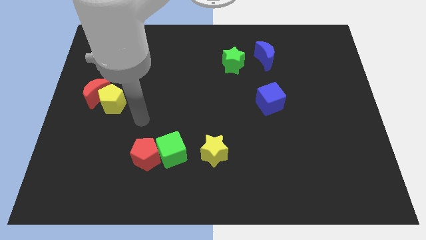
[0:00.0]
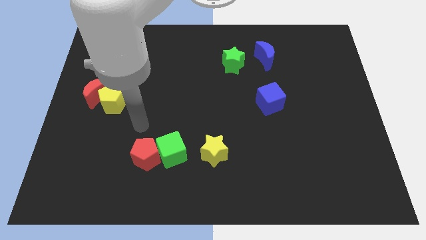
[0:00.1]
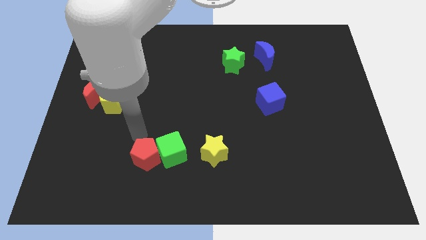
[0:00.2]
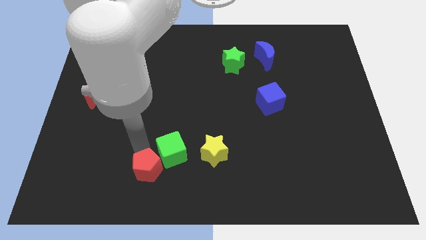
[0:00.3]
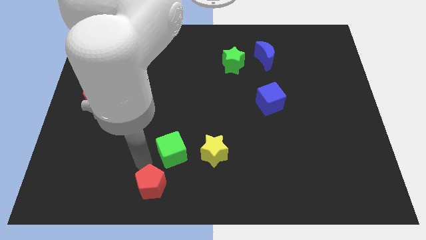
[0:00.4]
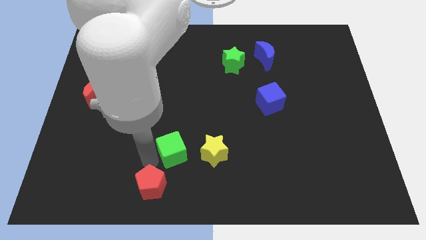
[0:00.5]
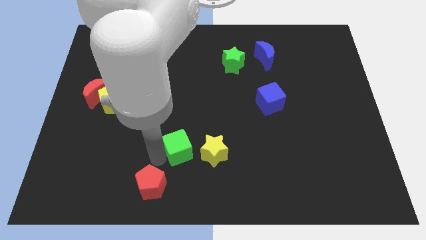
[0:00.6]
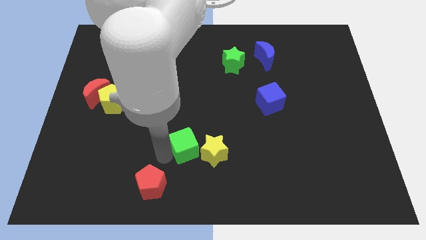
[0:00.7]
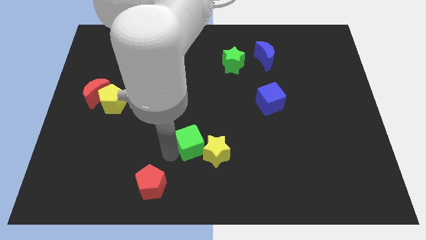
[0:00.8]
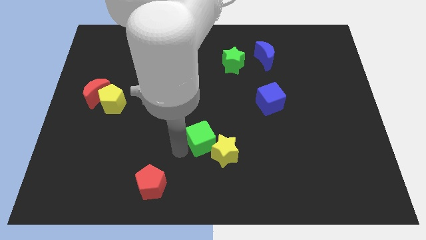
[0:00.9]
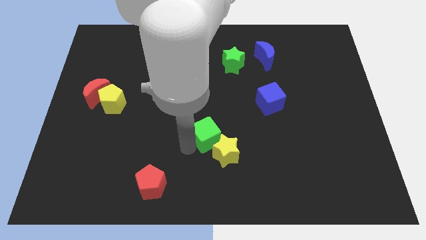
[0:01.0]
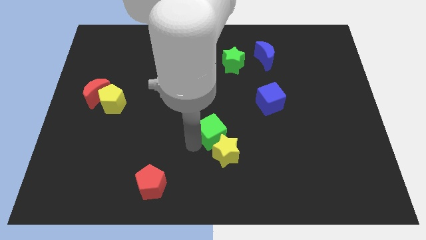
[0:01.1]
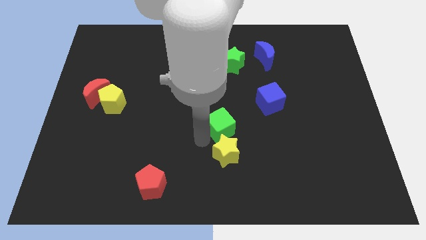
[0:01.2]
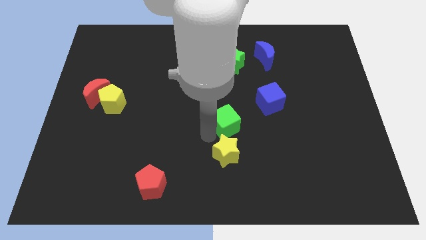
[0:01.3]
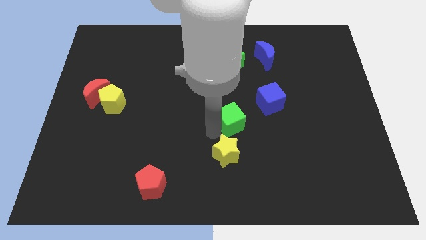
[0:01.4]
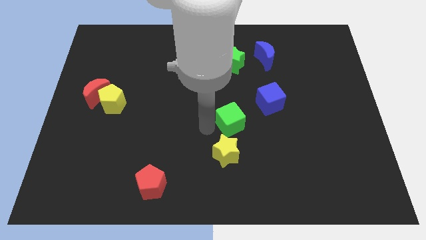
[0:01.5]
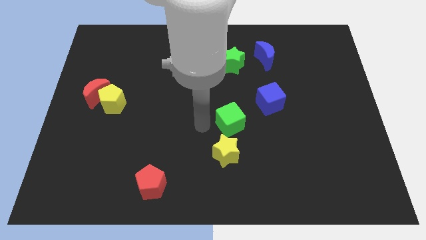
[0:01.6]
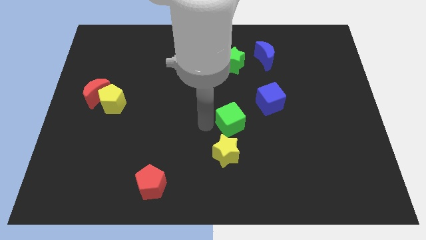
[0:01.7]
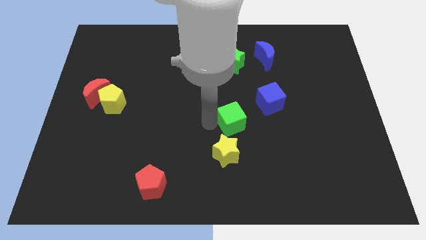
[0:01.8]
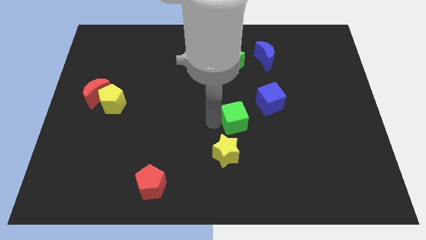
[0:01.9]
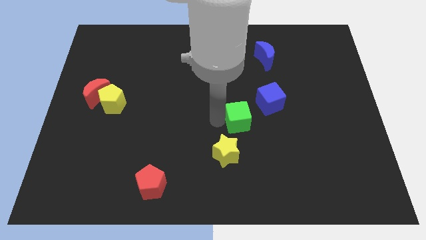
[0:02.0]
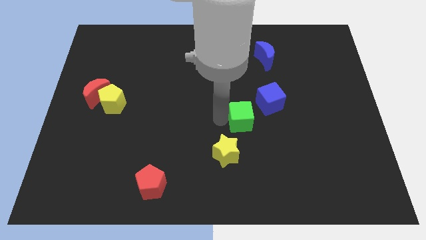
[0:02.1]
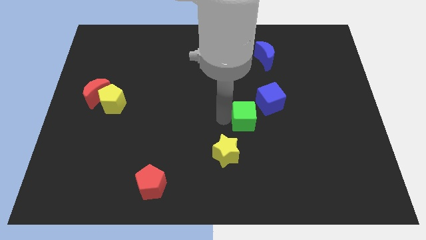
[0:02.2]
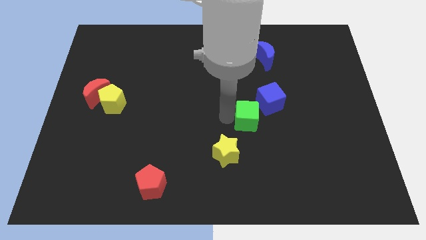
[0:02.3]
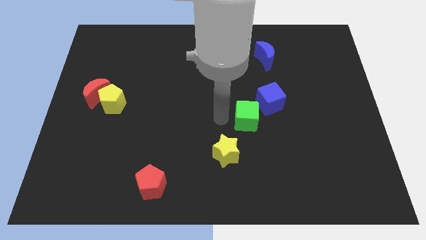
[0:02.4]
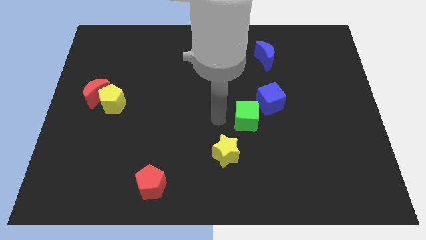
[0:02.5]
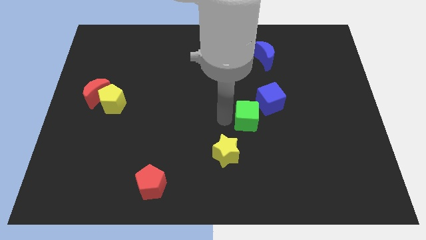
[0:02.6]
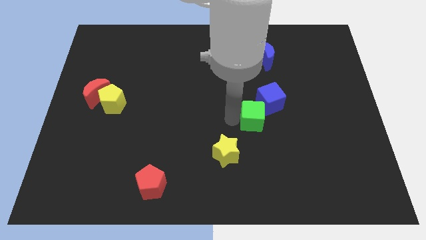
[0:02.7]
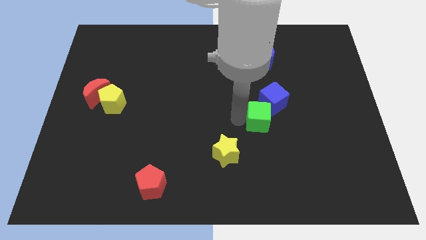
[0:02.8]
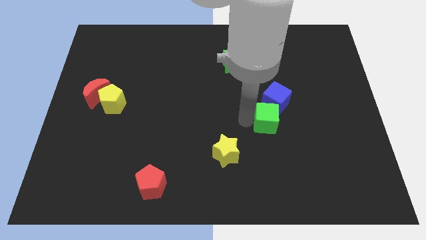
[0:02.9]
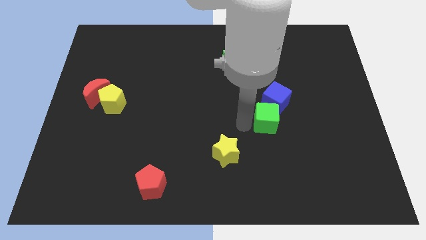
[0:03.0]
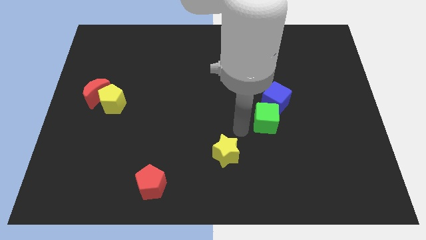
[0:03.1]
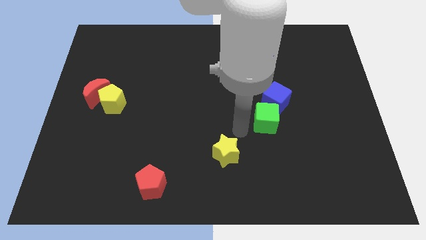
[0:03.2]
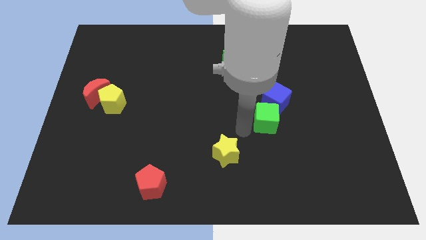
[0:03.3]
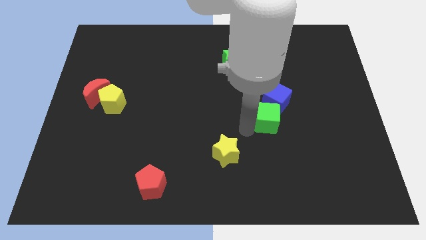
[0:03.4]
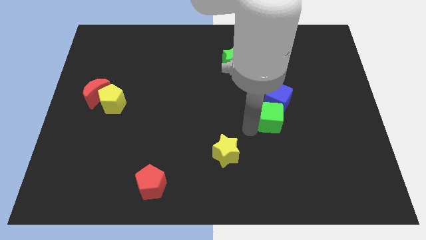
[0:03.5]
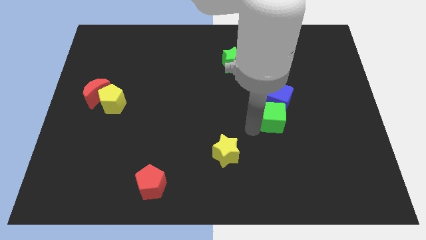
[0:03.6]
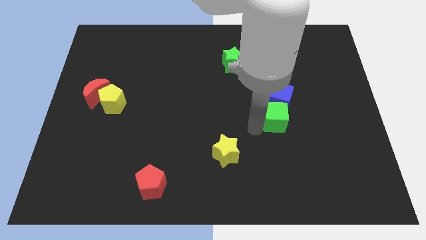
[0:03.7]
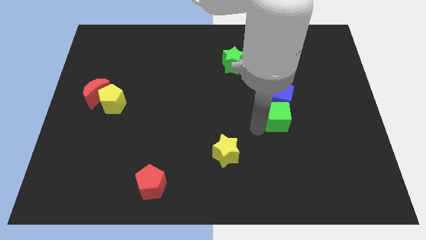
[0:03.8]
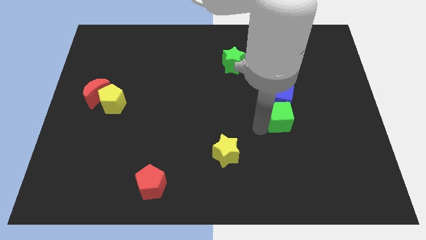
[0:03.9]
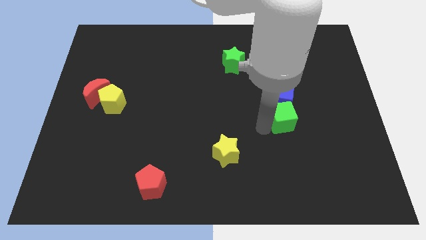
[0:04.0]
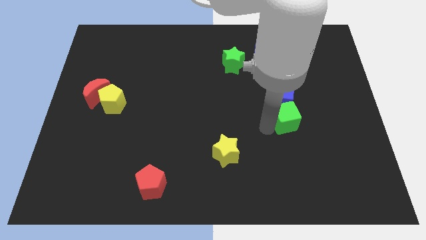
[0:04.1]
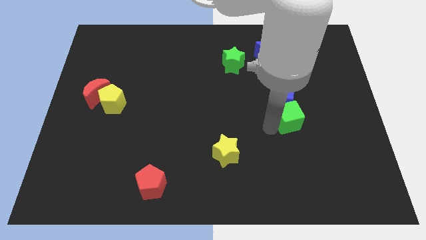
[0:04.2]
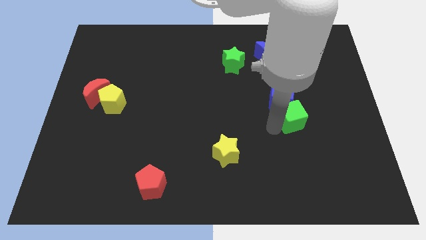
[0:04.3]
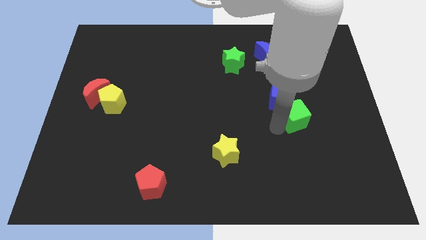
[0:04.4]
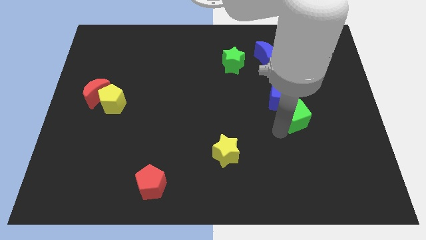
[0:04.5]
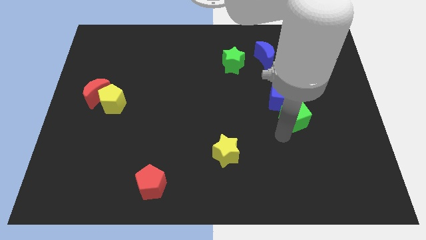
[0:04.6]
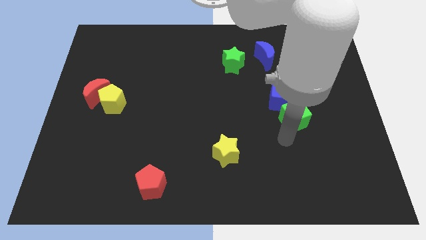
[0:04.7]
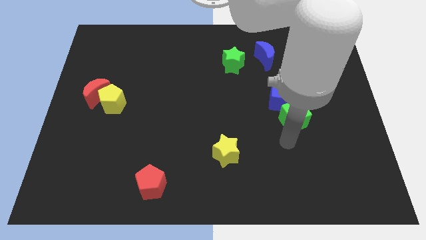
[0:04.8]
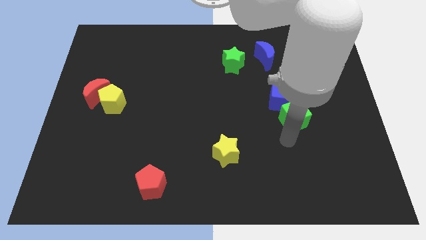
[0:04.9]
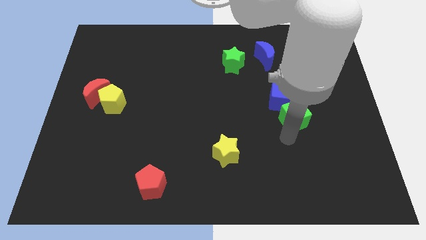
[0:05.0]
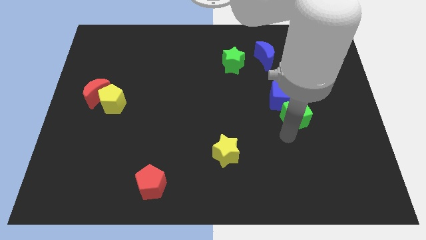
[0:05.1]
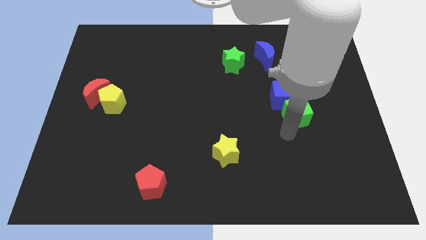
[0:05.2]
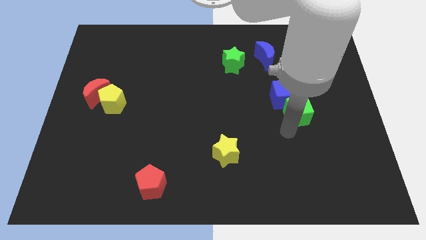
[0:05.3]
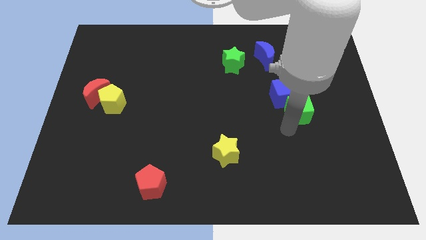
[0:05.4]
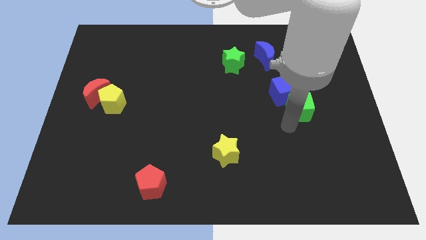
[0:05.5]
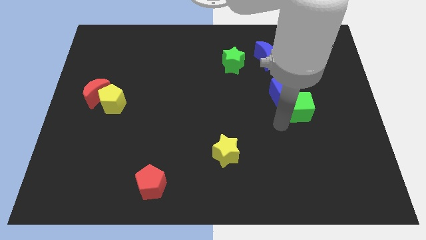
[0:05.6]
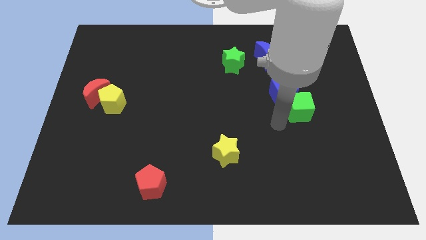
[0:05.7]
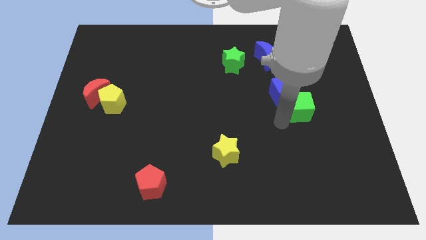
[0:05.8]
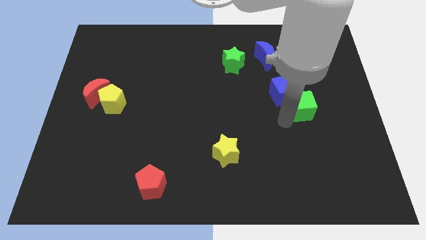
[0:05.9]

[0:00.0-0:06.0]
put the green cube to the right of the blue cube

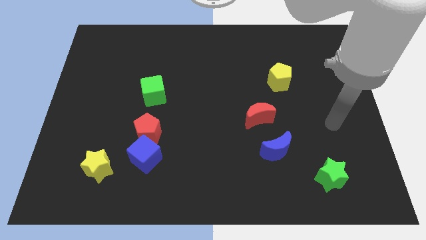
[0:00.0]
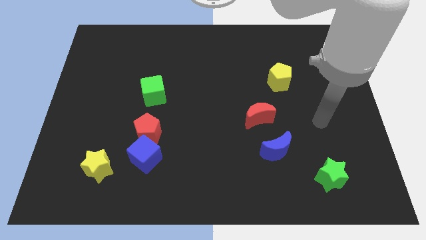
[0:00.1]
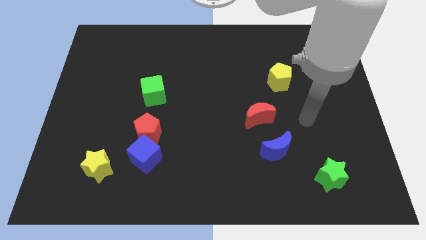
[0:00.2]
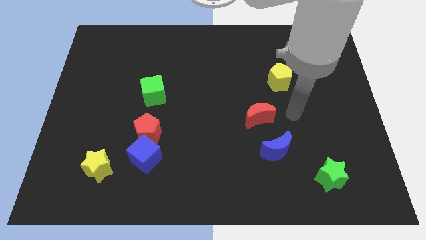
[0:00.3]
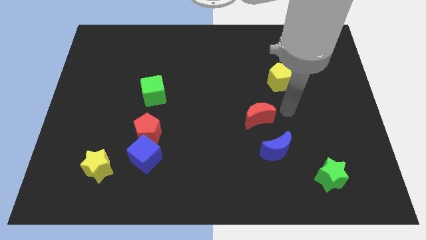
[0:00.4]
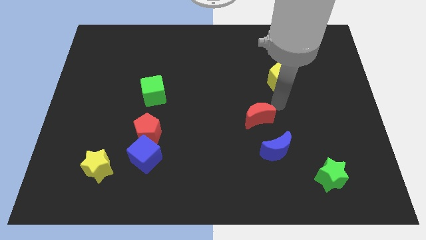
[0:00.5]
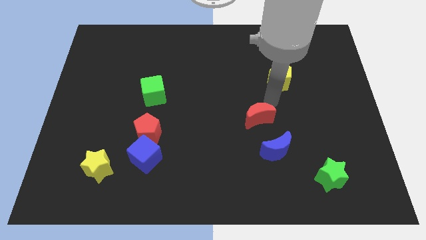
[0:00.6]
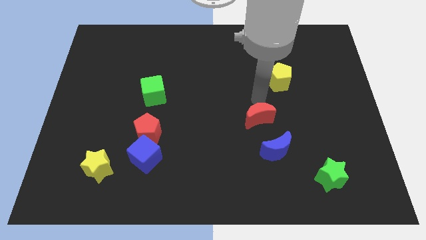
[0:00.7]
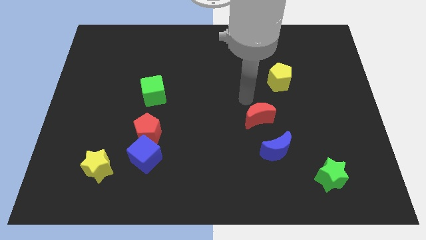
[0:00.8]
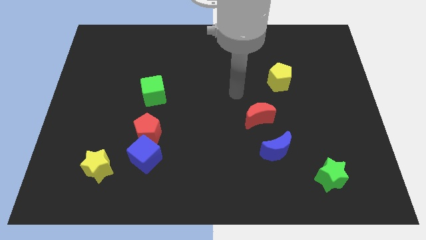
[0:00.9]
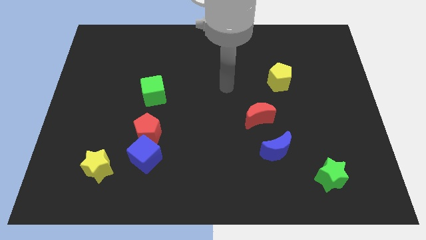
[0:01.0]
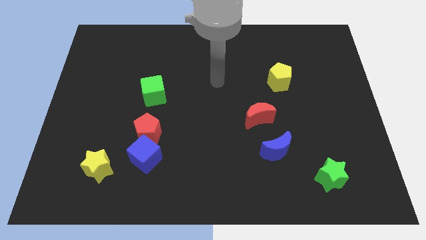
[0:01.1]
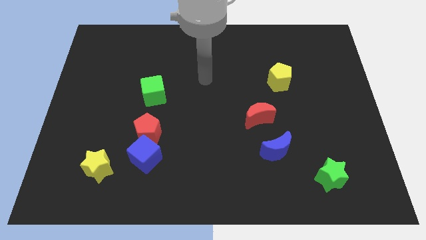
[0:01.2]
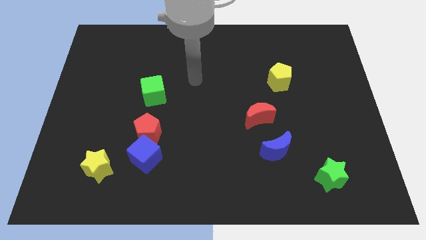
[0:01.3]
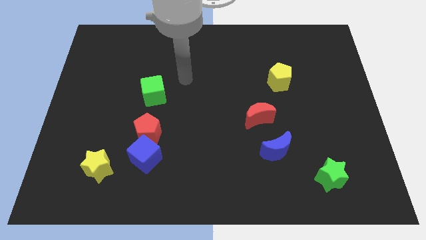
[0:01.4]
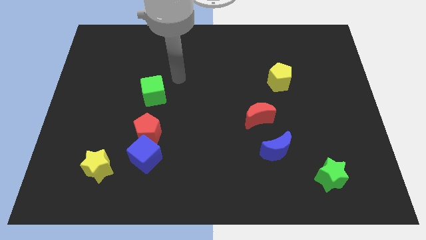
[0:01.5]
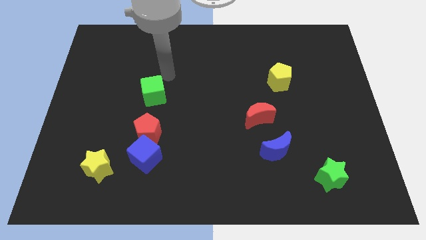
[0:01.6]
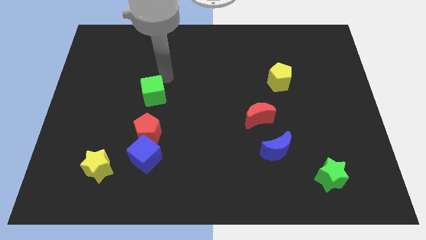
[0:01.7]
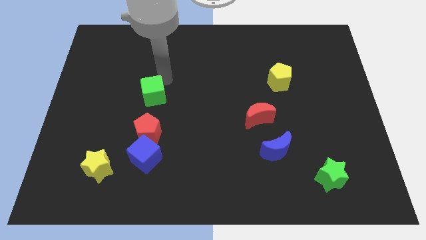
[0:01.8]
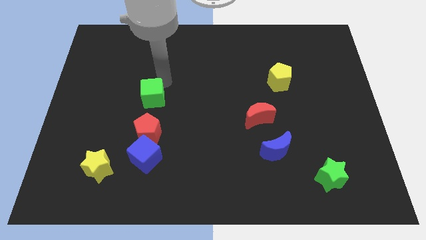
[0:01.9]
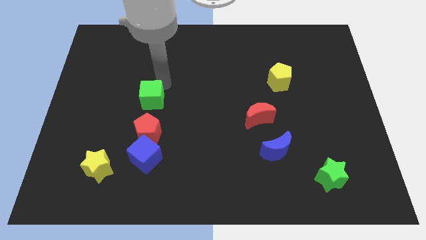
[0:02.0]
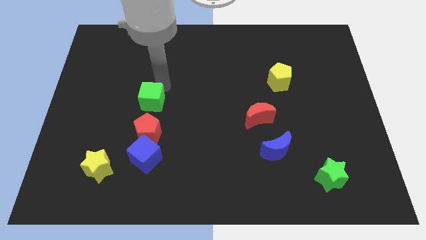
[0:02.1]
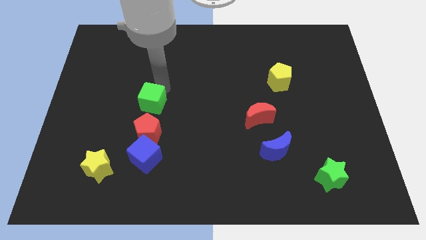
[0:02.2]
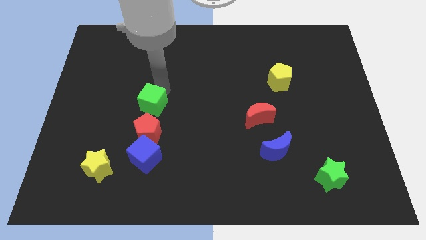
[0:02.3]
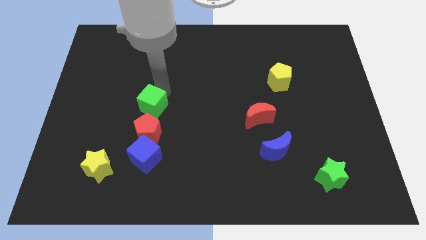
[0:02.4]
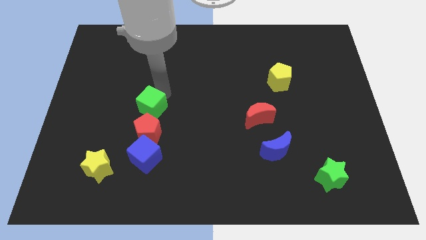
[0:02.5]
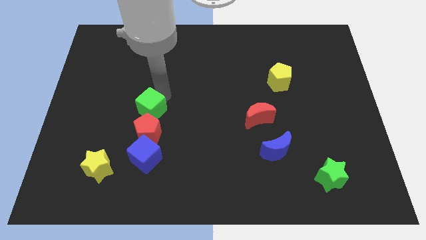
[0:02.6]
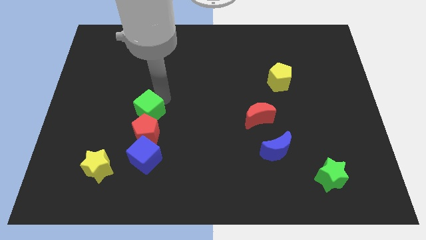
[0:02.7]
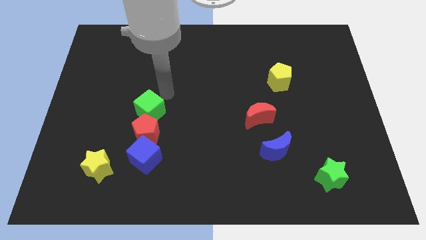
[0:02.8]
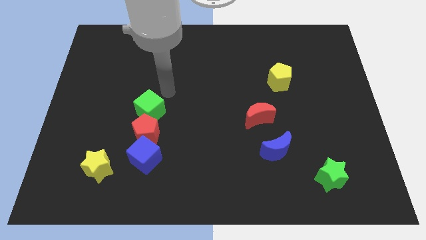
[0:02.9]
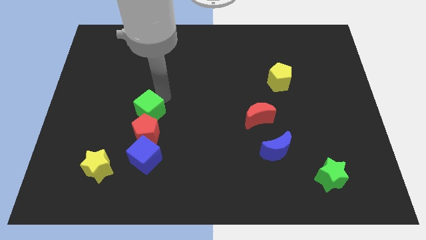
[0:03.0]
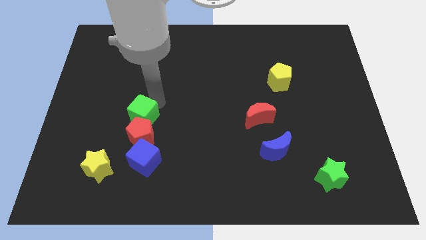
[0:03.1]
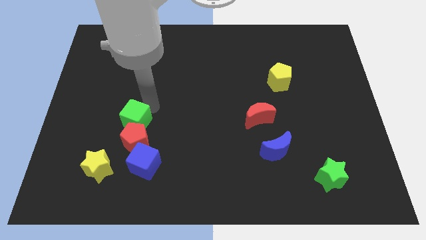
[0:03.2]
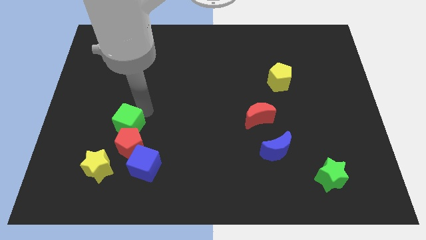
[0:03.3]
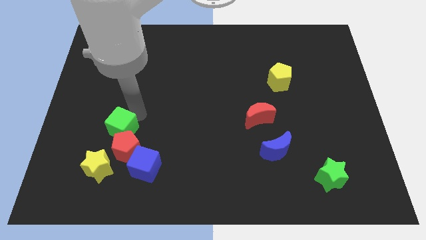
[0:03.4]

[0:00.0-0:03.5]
slide the green cube to the top left side of the blue cube
